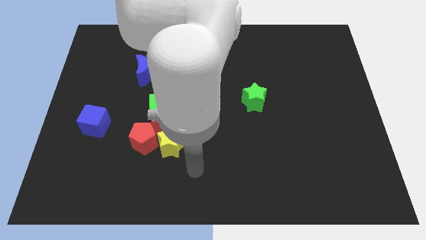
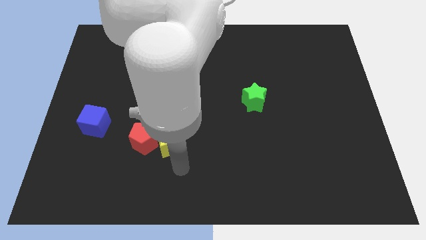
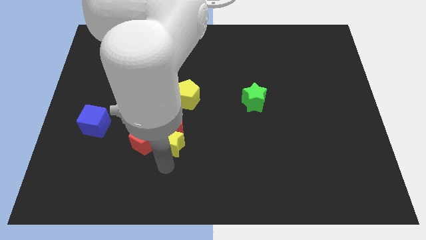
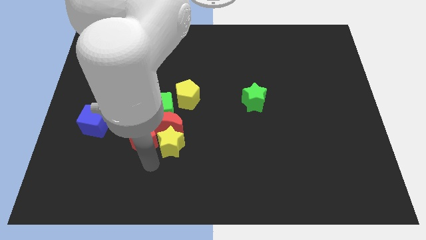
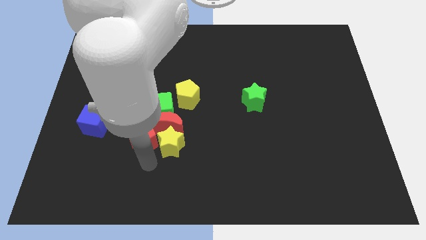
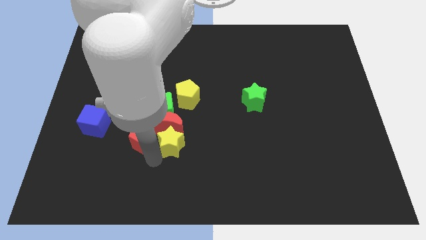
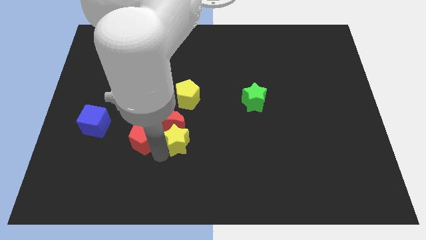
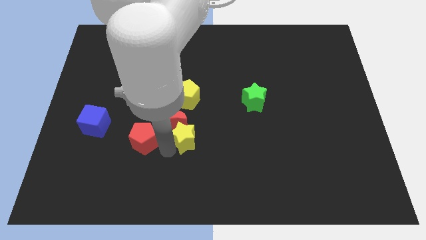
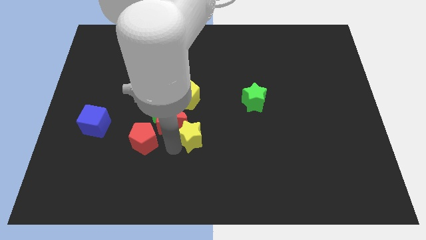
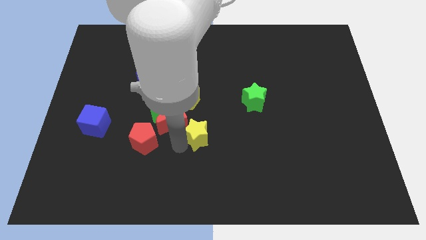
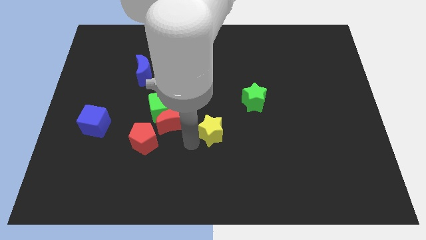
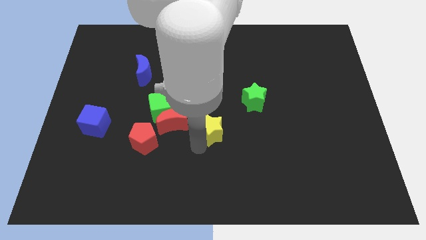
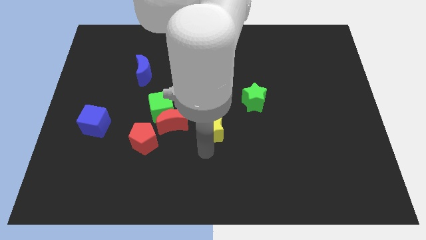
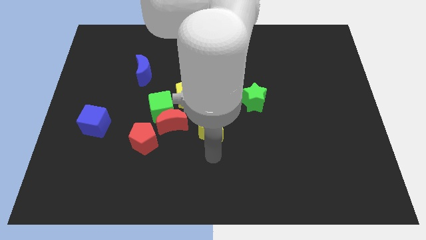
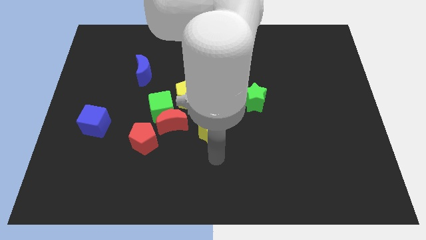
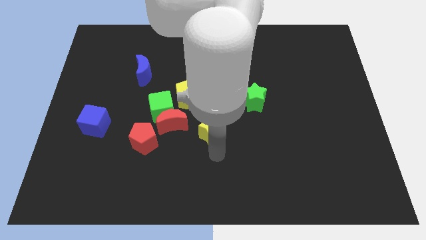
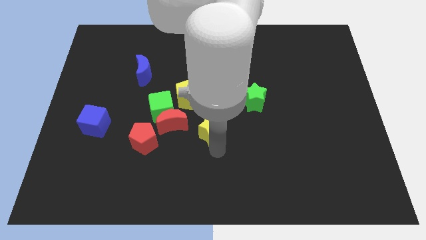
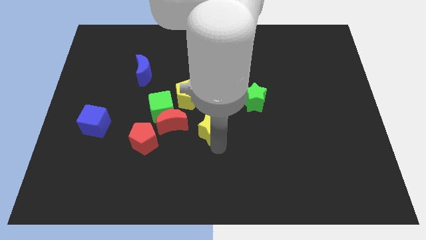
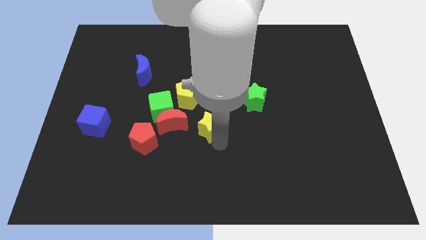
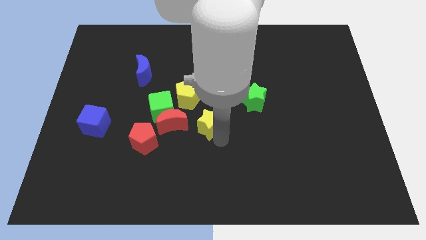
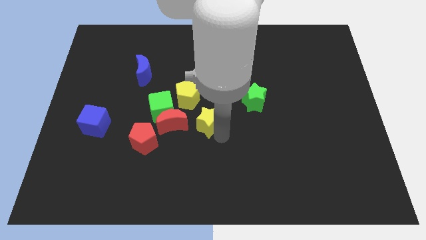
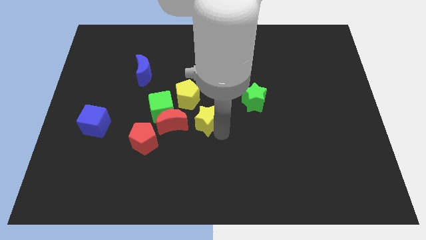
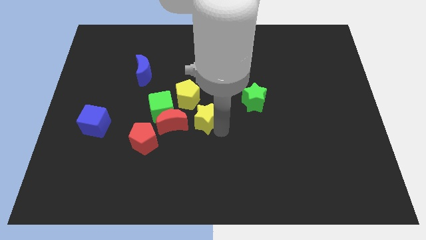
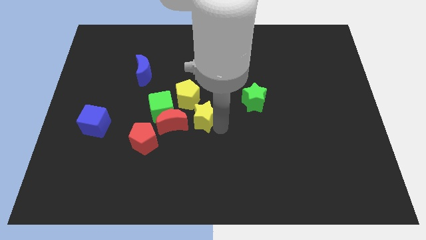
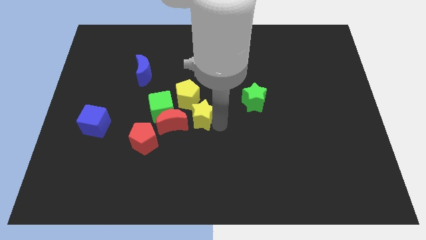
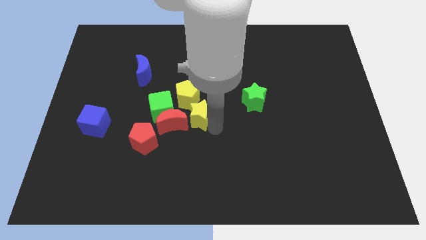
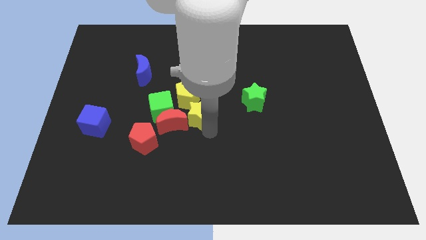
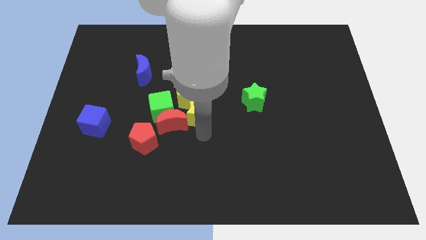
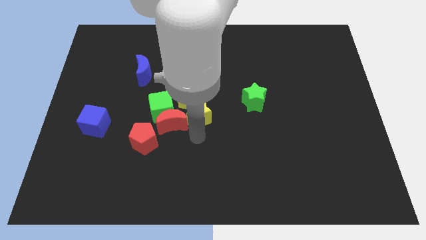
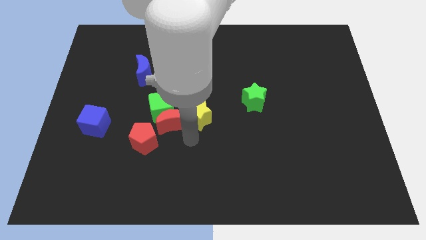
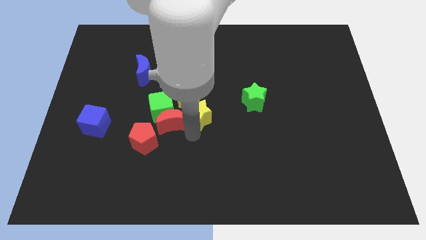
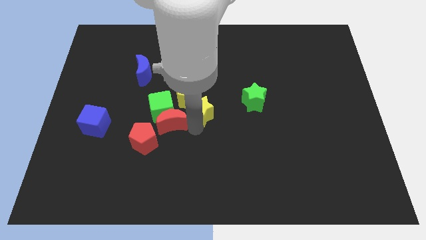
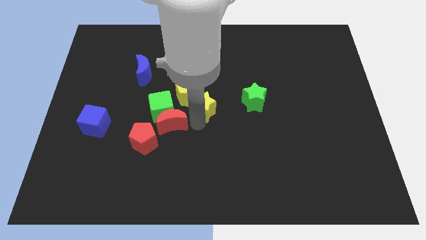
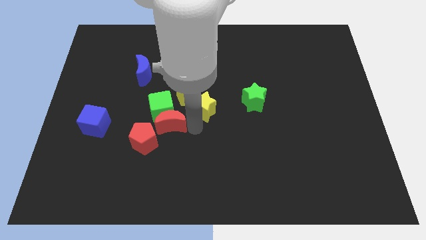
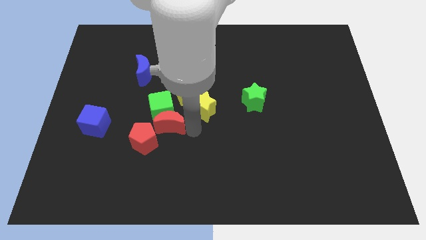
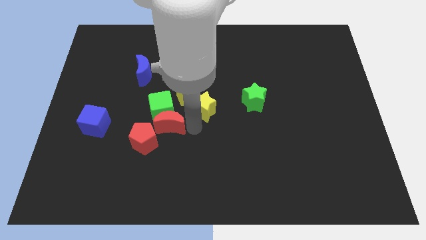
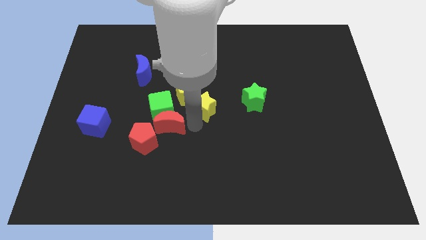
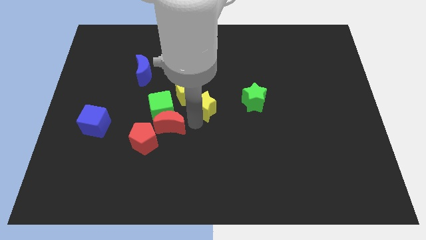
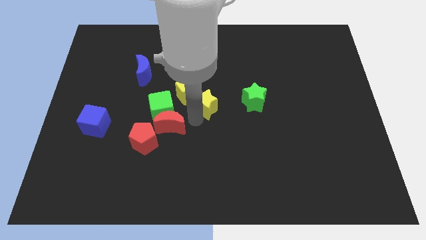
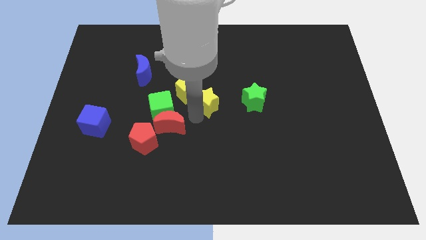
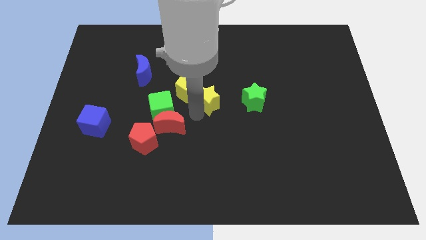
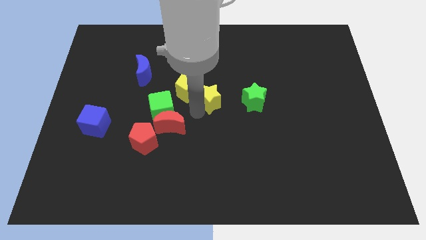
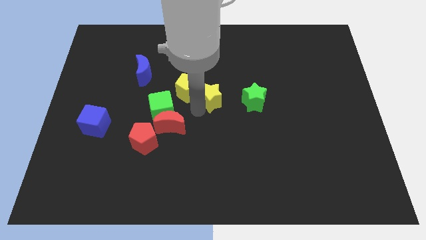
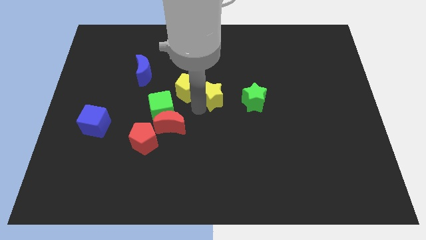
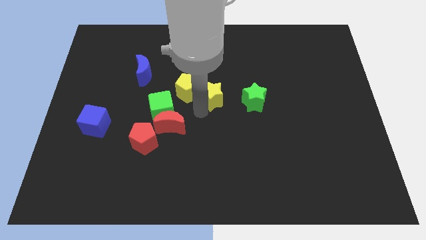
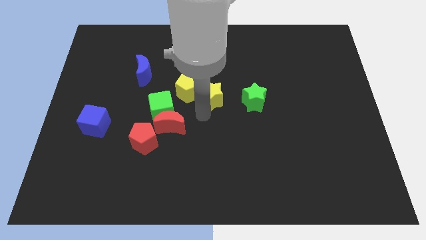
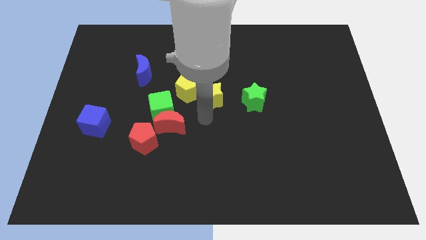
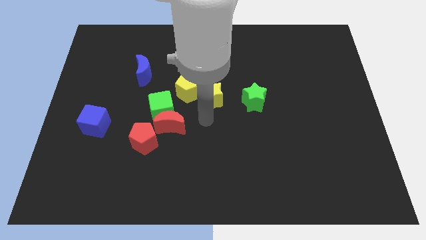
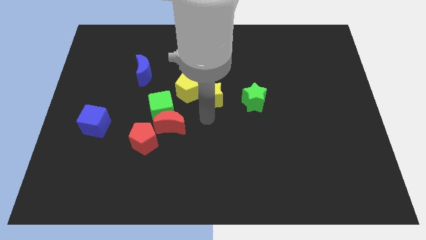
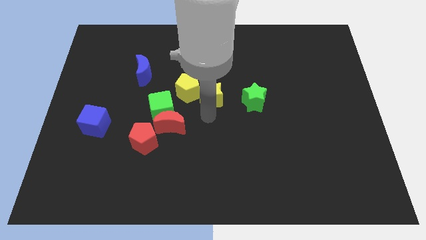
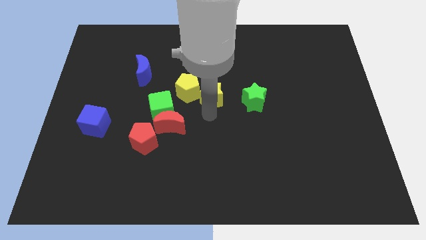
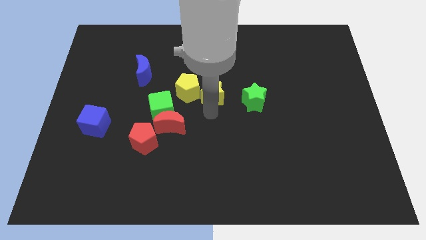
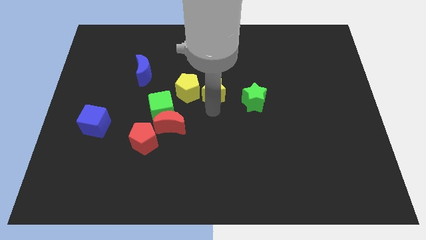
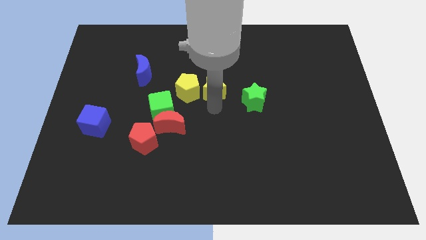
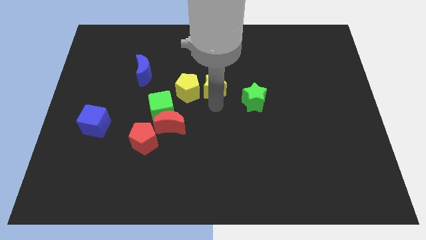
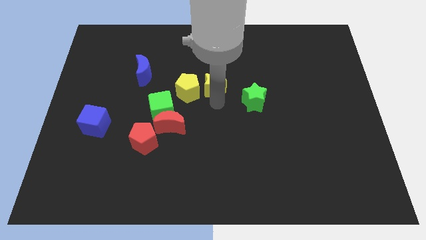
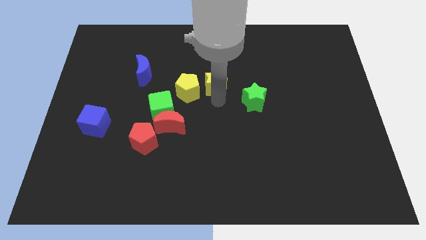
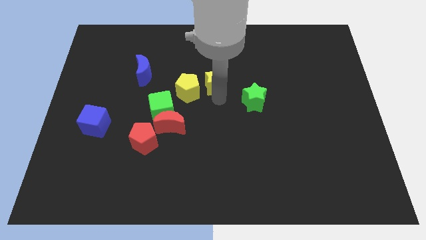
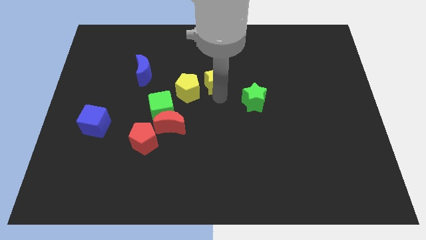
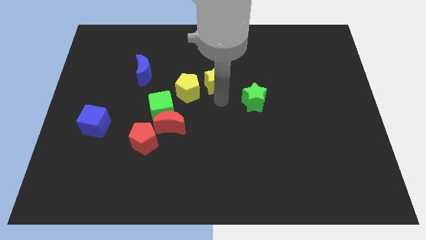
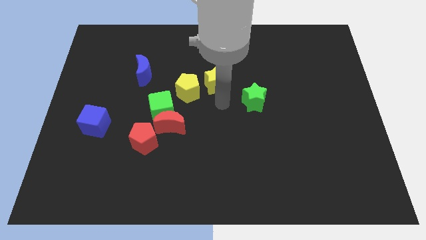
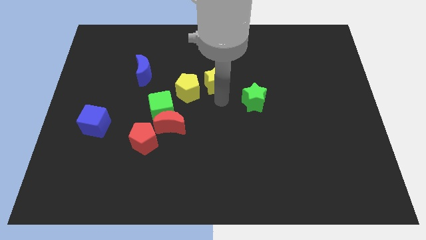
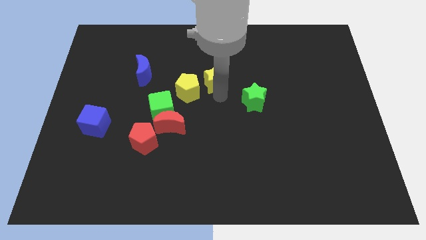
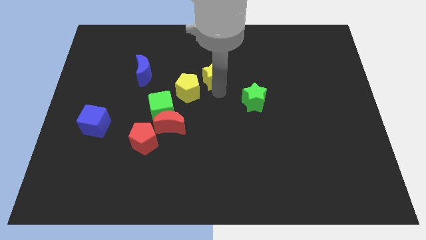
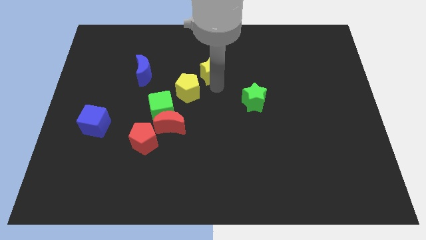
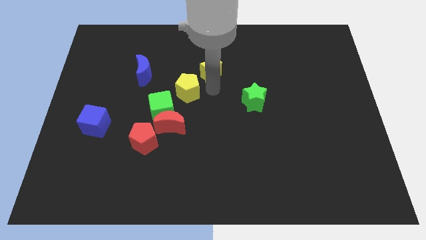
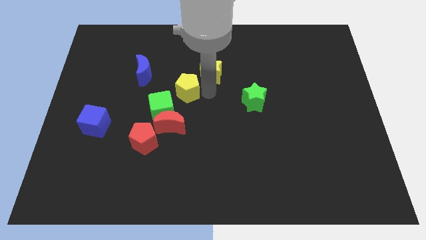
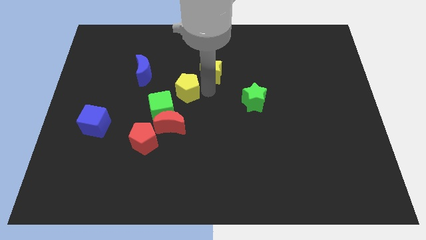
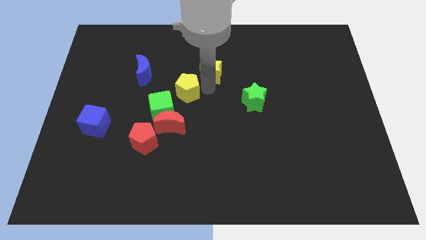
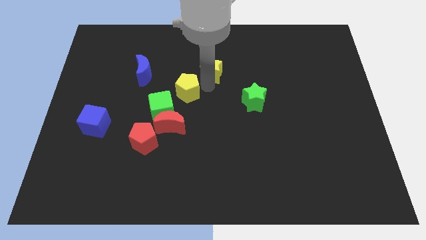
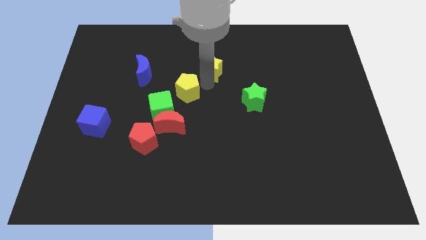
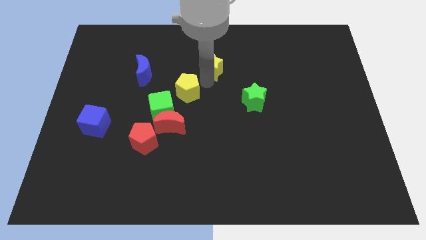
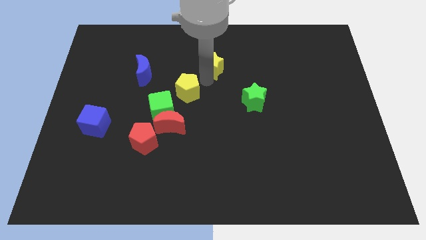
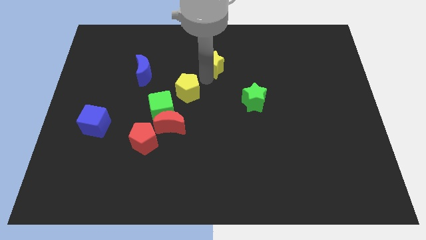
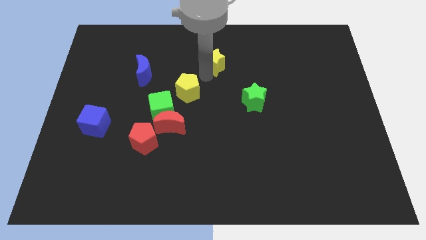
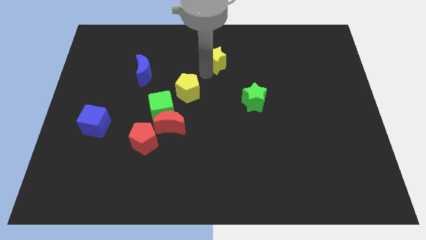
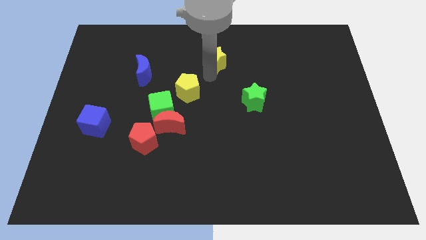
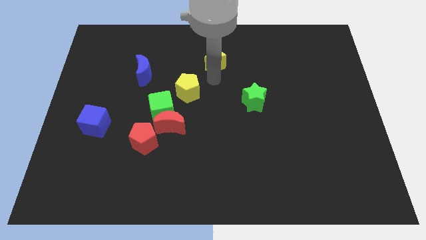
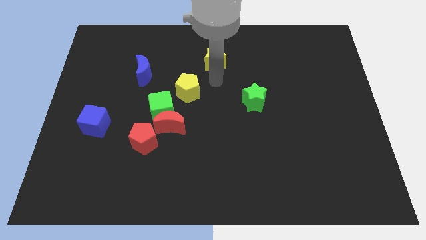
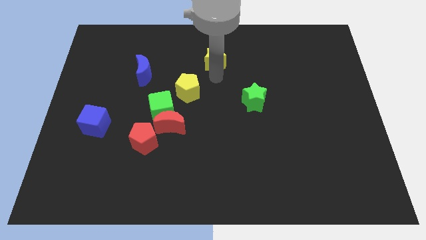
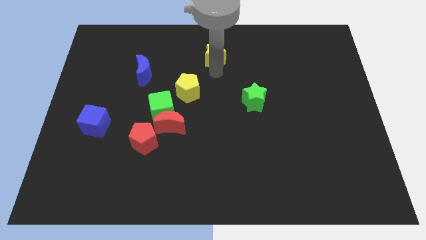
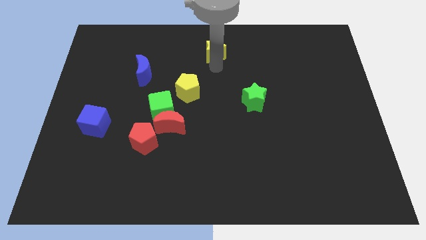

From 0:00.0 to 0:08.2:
push the yellow star to the top
